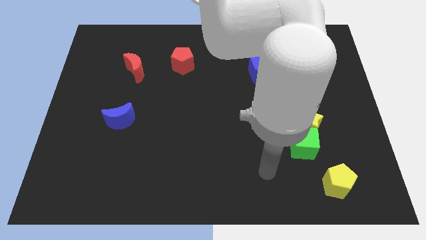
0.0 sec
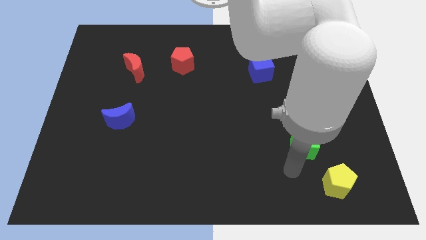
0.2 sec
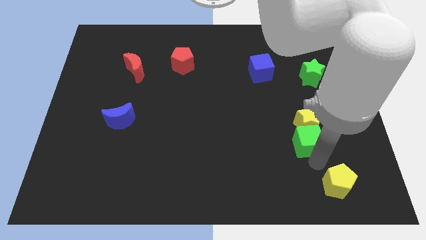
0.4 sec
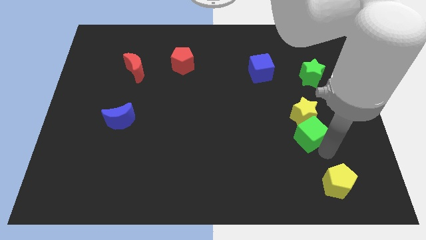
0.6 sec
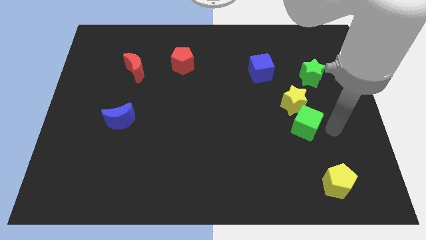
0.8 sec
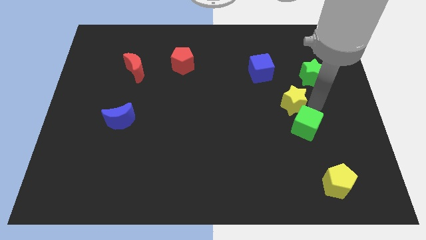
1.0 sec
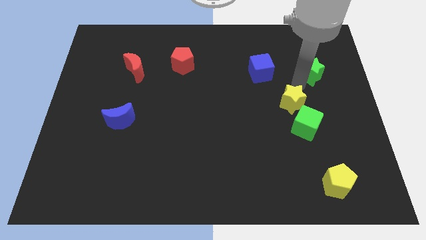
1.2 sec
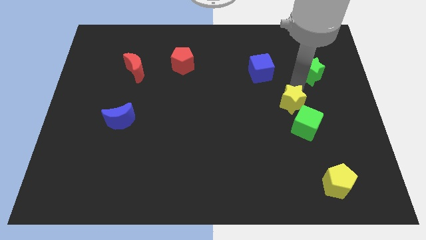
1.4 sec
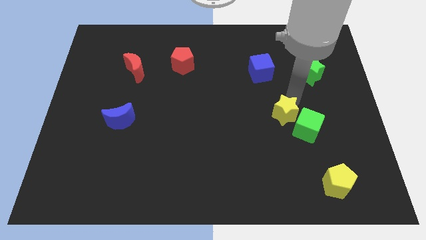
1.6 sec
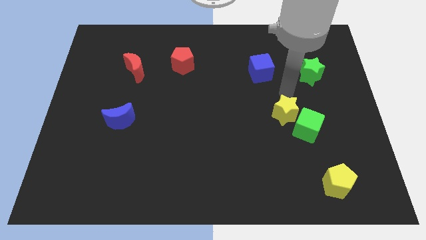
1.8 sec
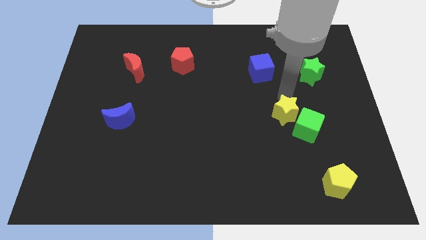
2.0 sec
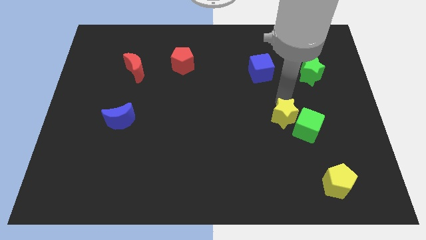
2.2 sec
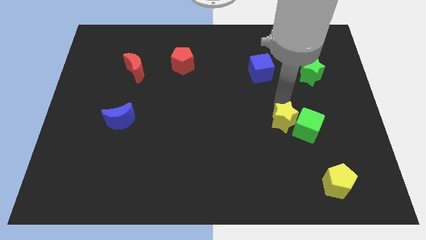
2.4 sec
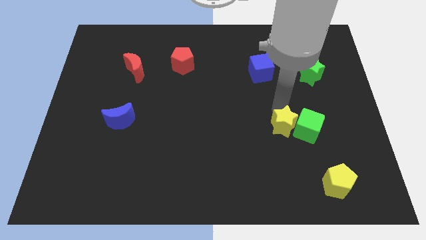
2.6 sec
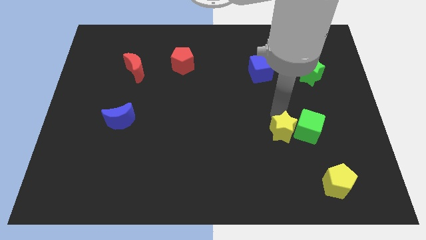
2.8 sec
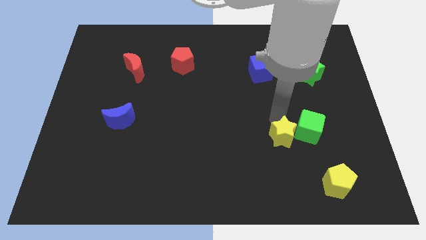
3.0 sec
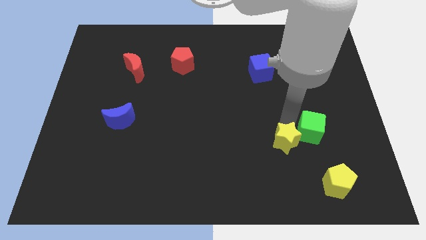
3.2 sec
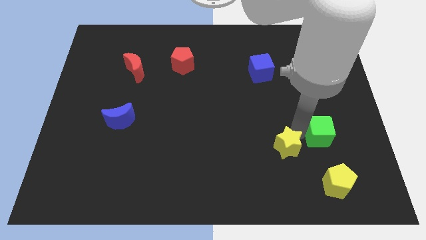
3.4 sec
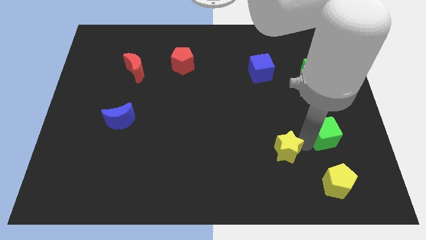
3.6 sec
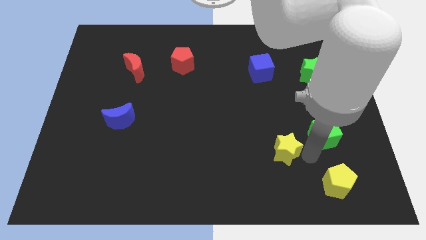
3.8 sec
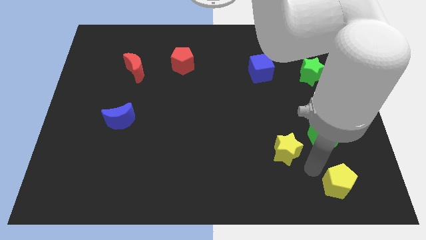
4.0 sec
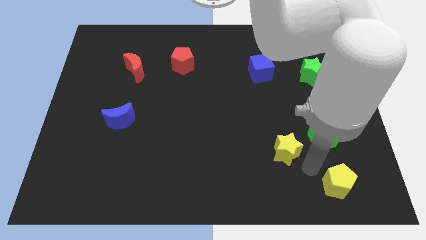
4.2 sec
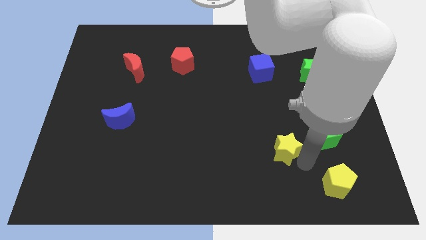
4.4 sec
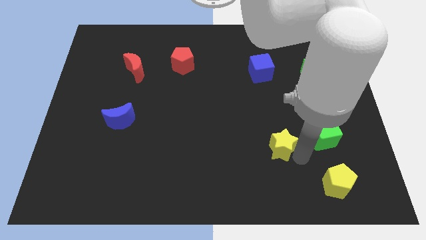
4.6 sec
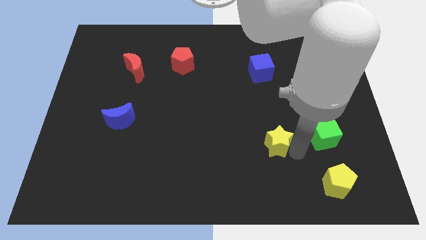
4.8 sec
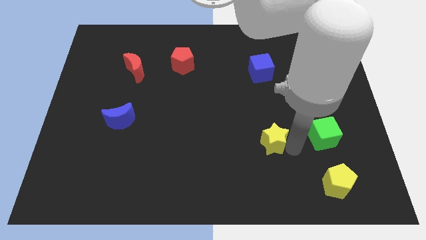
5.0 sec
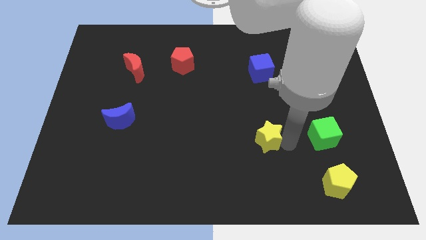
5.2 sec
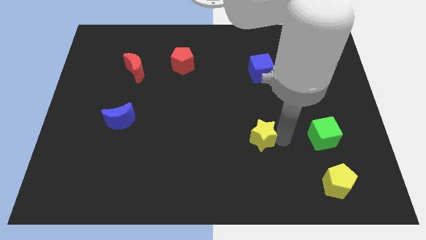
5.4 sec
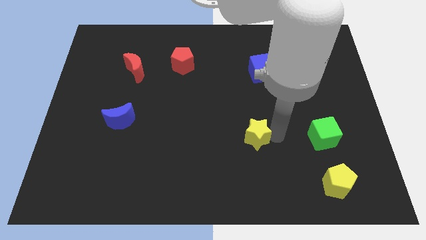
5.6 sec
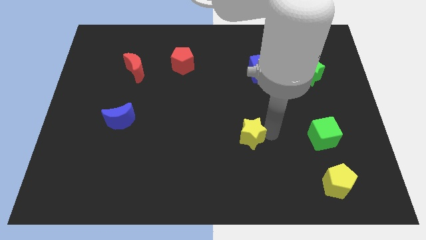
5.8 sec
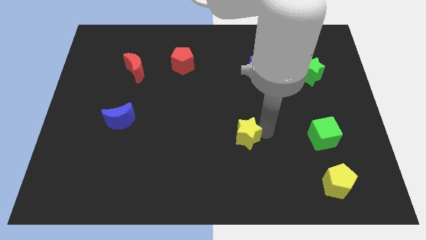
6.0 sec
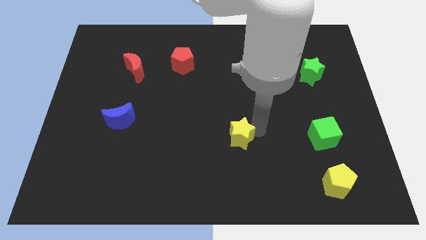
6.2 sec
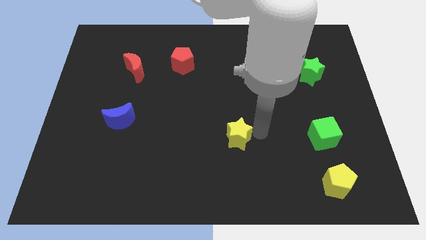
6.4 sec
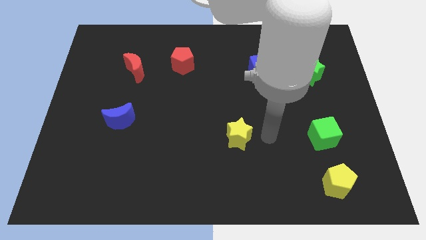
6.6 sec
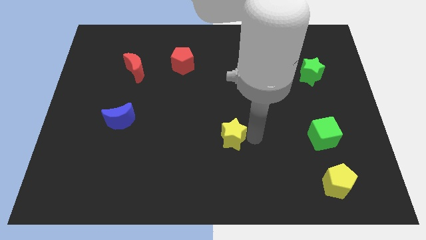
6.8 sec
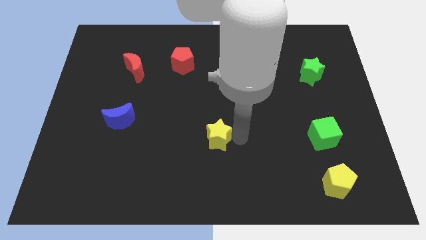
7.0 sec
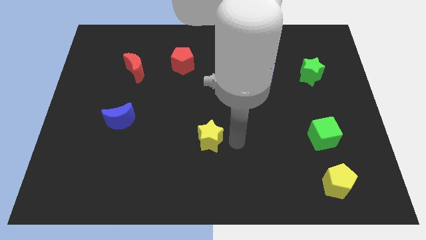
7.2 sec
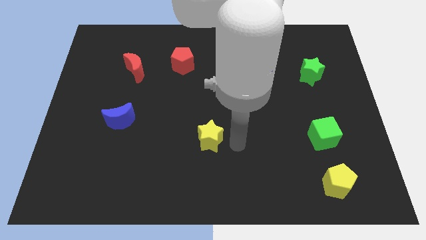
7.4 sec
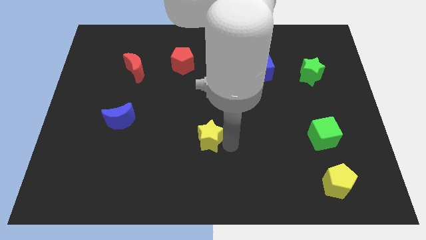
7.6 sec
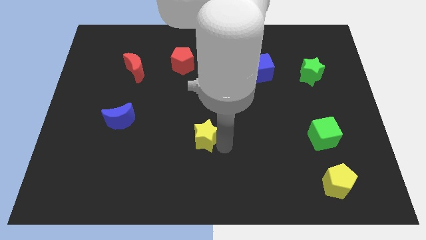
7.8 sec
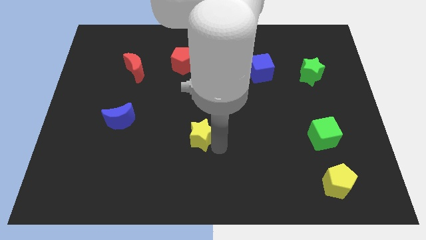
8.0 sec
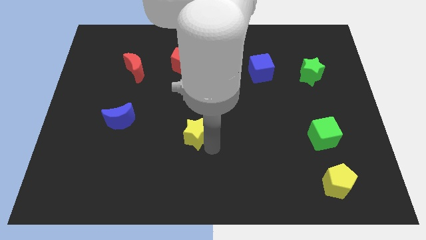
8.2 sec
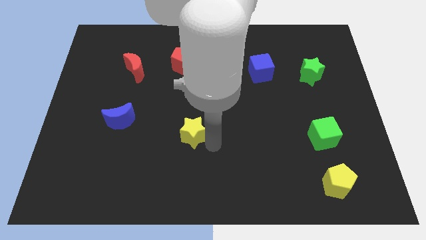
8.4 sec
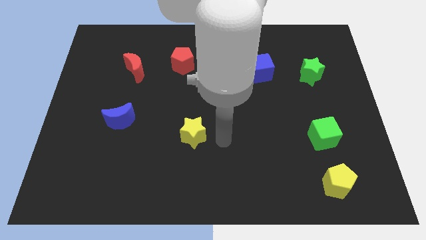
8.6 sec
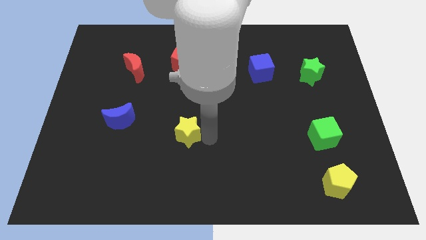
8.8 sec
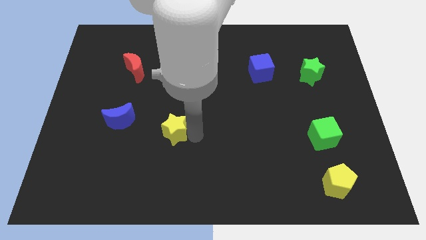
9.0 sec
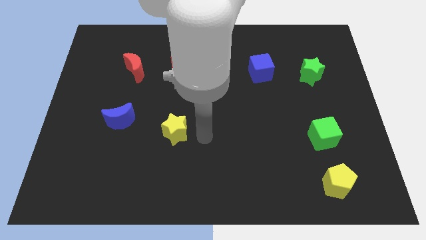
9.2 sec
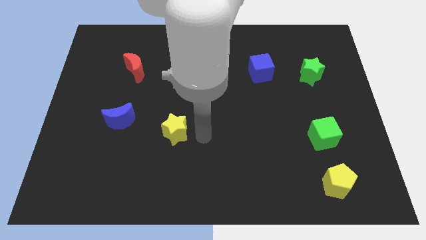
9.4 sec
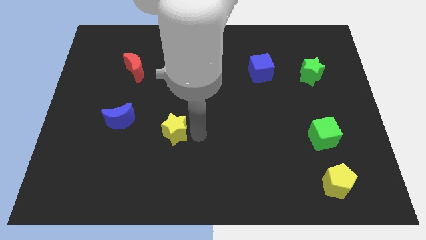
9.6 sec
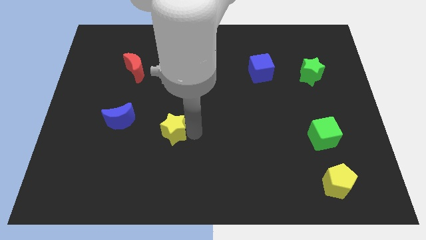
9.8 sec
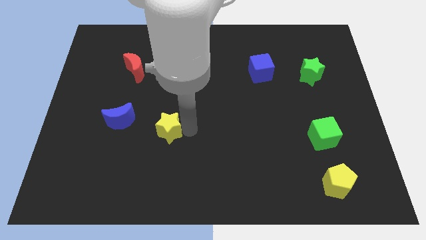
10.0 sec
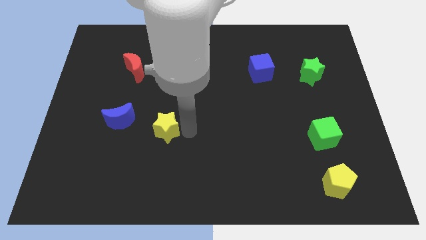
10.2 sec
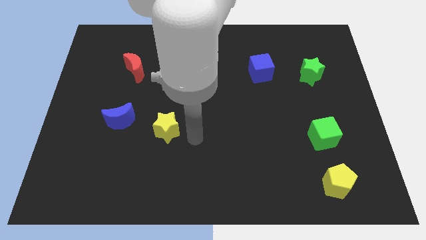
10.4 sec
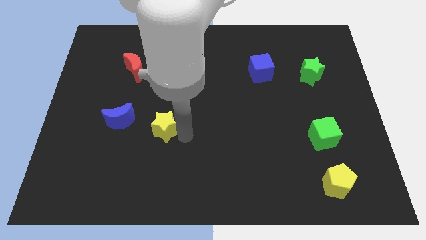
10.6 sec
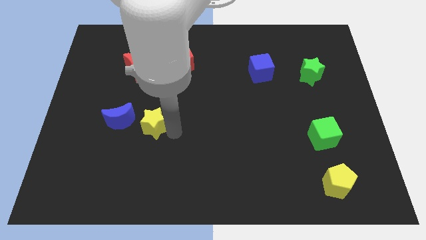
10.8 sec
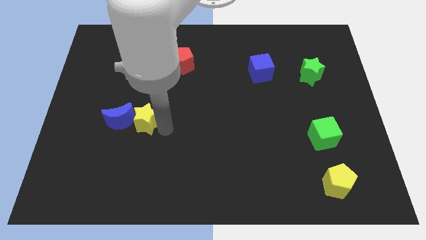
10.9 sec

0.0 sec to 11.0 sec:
put the yellow star next to the blue moon

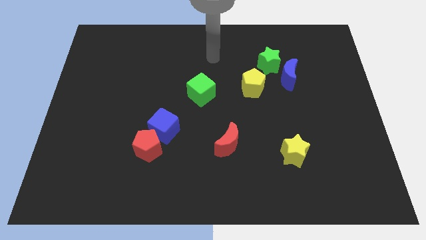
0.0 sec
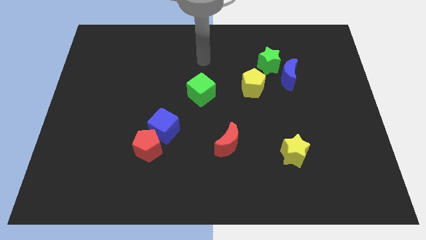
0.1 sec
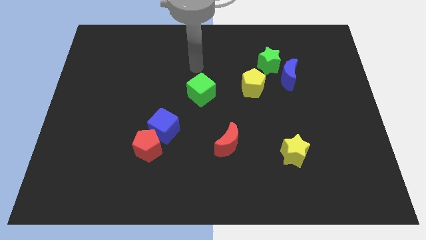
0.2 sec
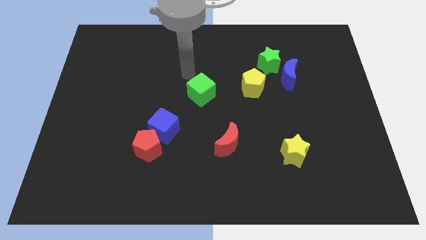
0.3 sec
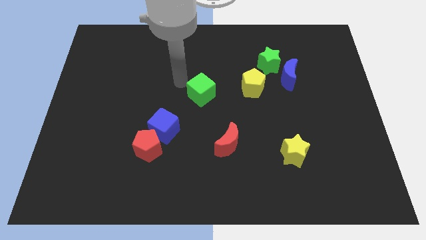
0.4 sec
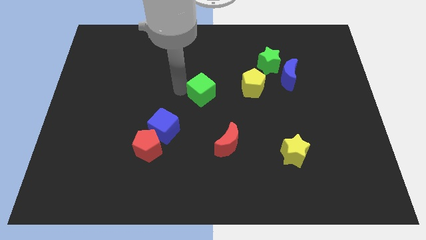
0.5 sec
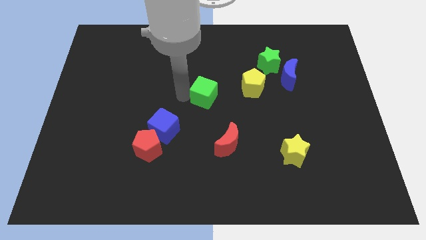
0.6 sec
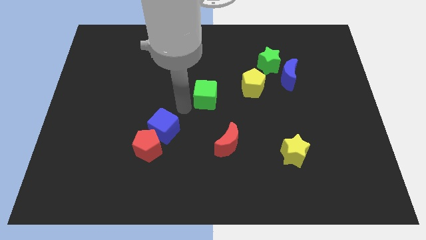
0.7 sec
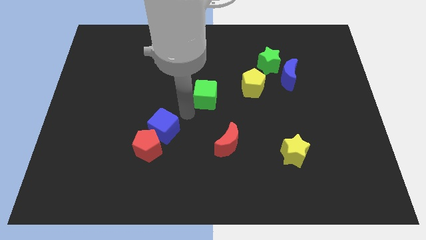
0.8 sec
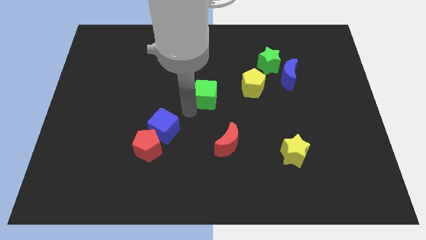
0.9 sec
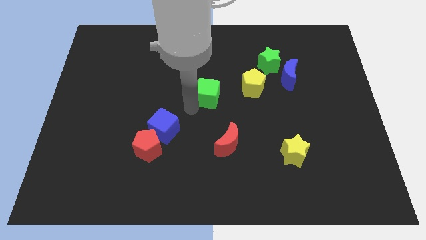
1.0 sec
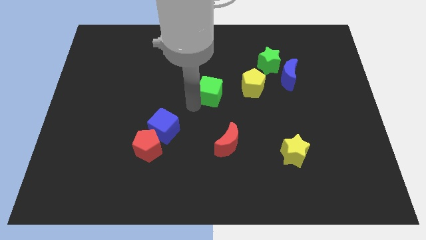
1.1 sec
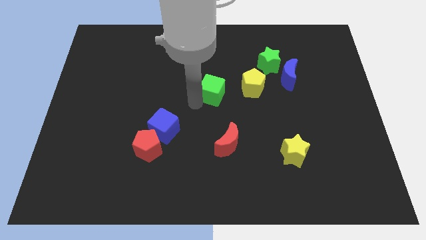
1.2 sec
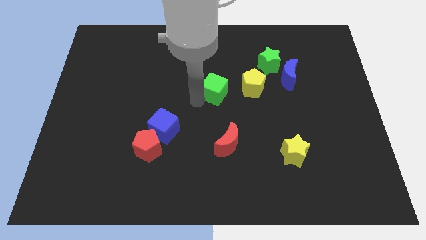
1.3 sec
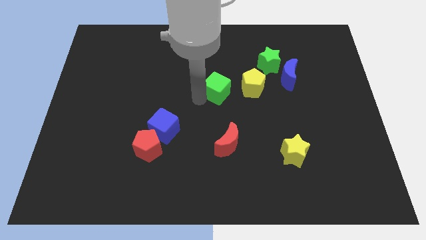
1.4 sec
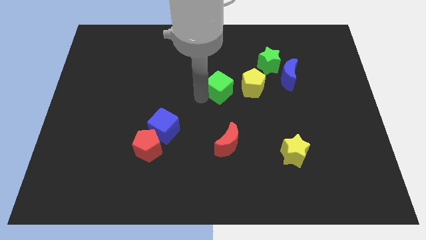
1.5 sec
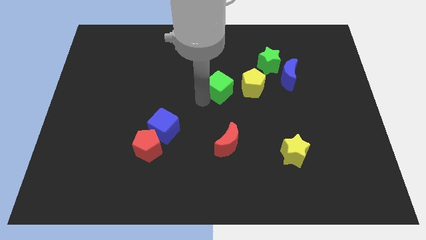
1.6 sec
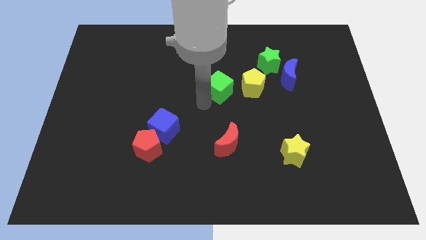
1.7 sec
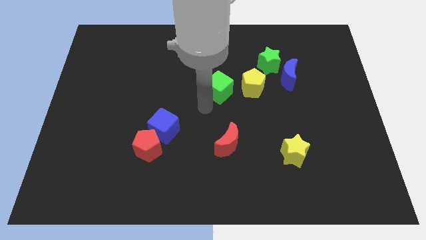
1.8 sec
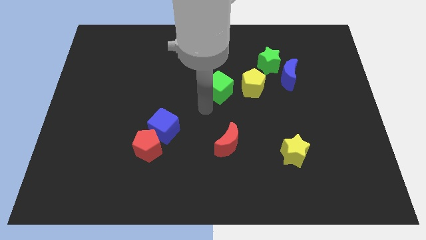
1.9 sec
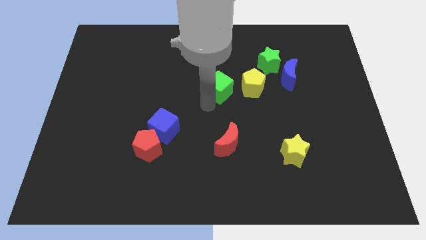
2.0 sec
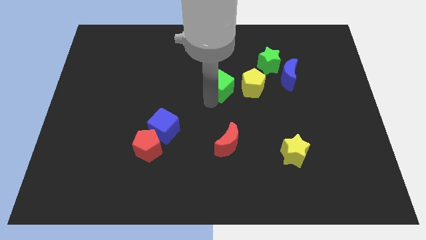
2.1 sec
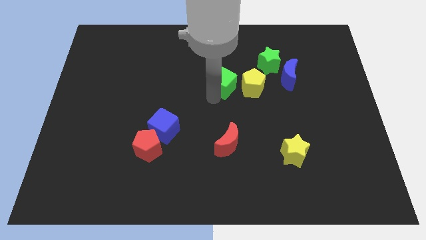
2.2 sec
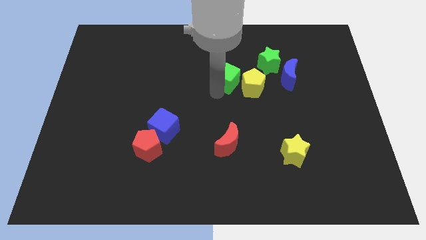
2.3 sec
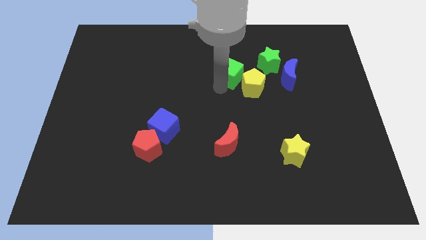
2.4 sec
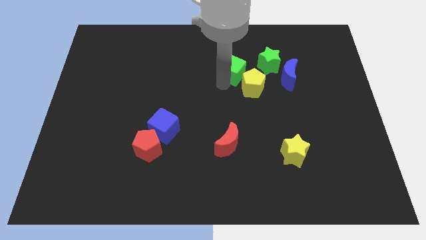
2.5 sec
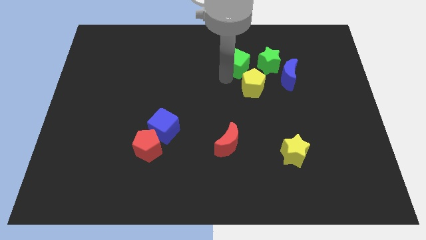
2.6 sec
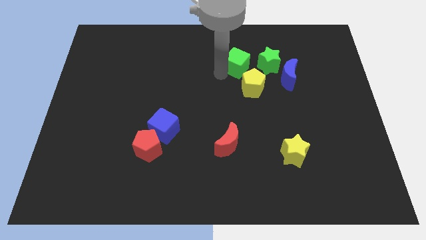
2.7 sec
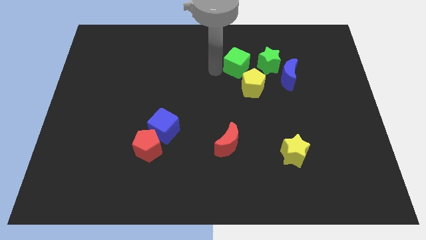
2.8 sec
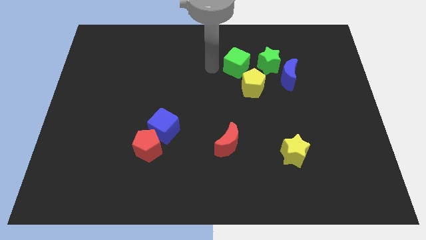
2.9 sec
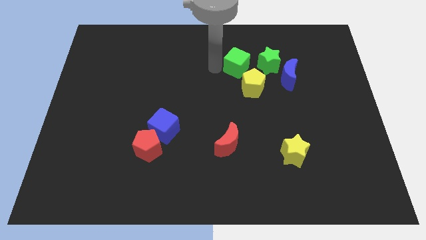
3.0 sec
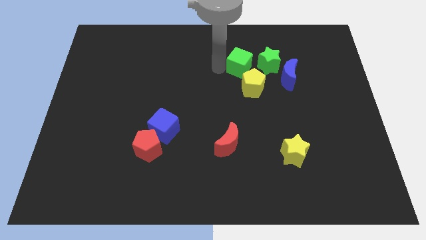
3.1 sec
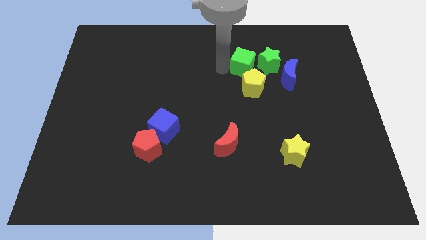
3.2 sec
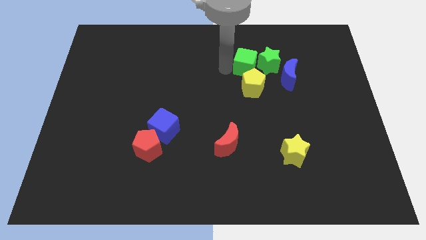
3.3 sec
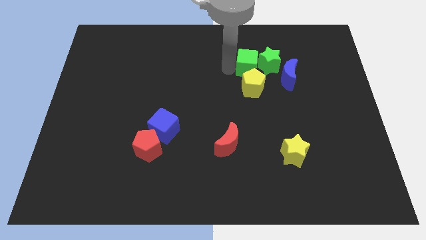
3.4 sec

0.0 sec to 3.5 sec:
move the green cube close to the green star
